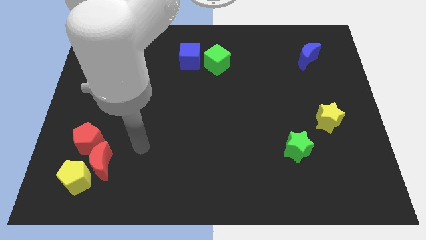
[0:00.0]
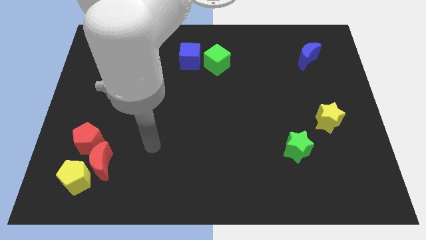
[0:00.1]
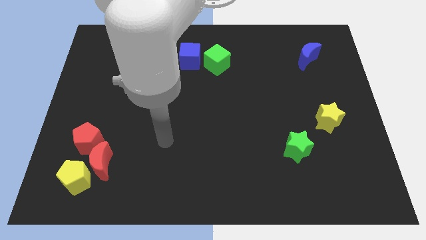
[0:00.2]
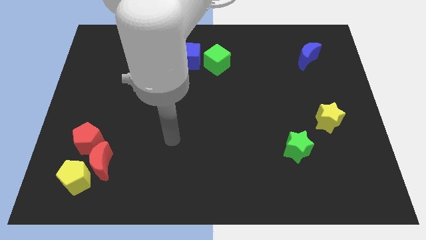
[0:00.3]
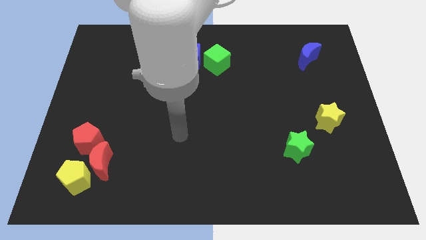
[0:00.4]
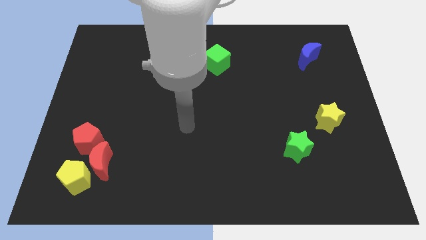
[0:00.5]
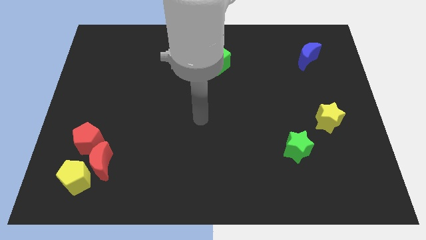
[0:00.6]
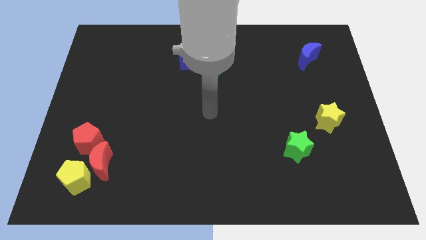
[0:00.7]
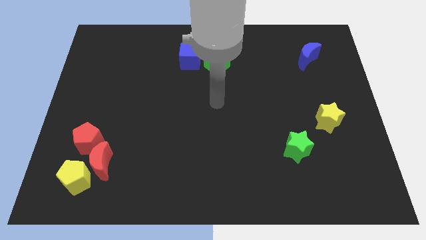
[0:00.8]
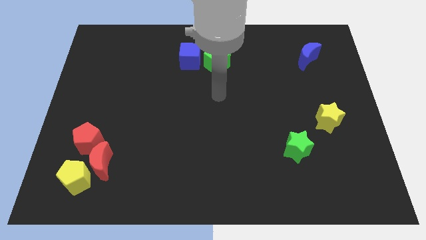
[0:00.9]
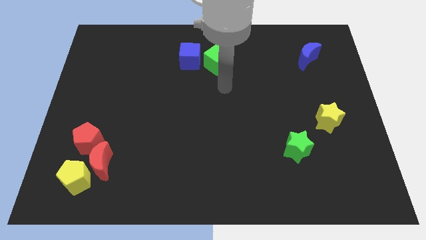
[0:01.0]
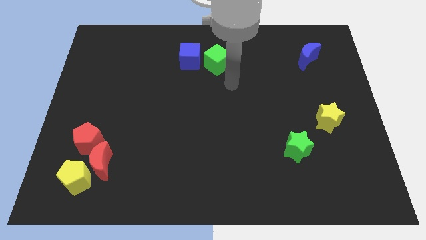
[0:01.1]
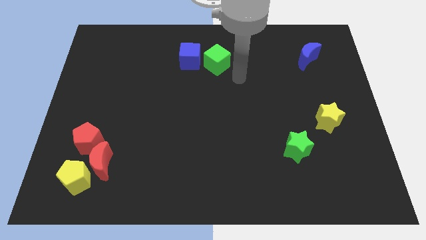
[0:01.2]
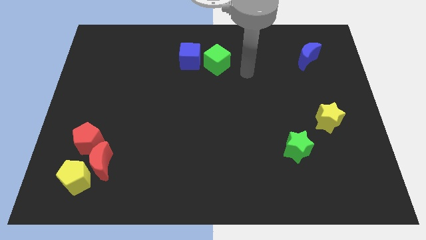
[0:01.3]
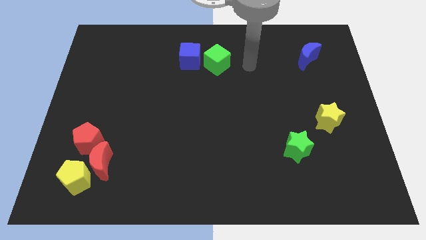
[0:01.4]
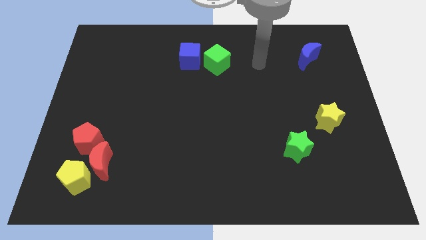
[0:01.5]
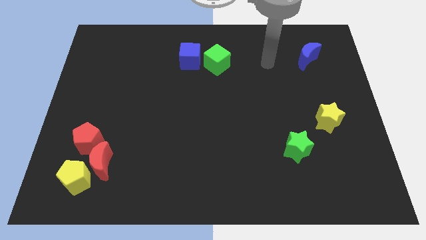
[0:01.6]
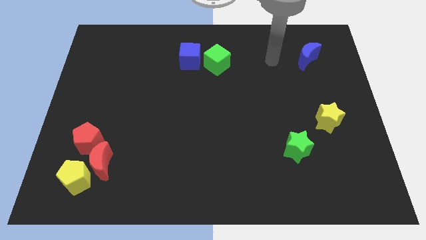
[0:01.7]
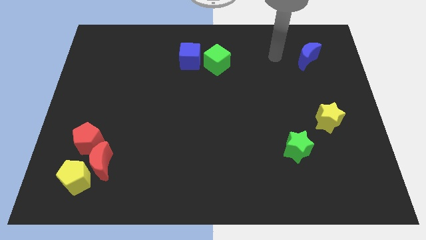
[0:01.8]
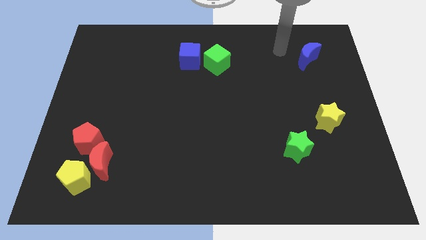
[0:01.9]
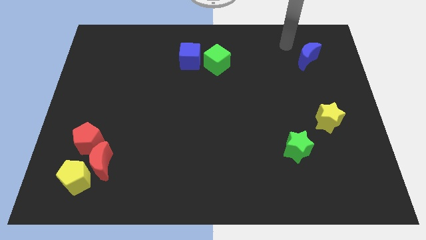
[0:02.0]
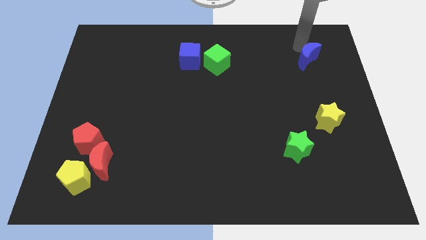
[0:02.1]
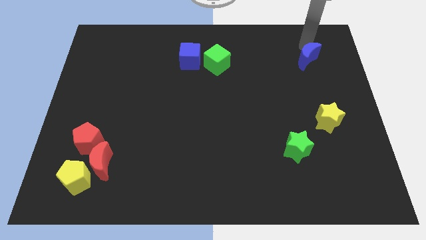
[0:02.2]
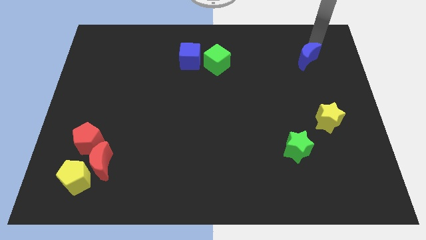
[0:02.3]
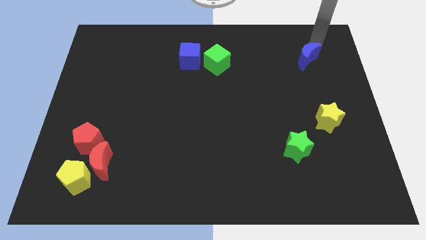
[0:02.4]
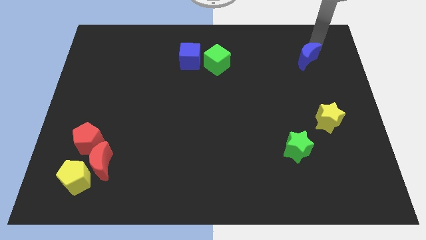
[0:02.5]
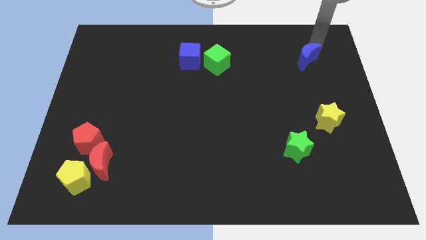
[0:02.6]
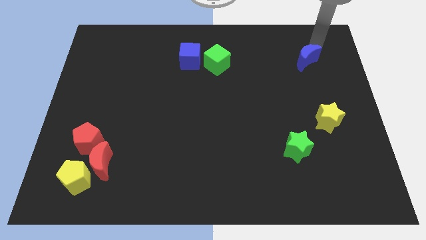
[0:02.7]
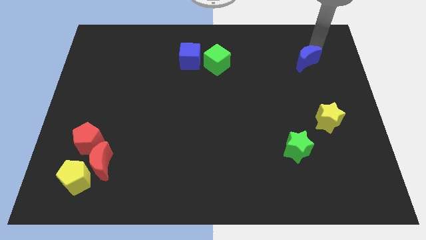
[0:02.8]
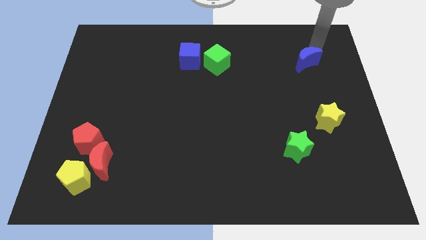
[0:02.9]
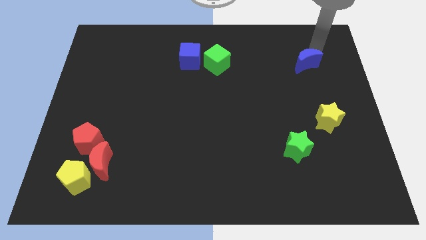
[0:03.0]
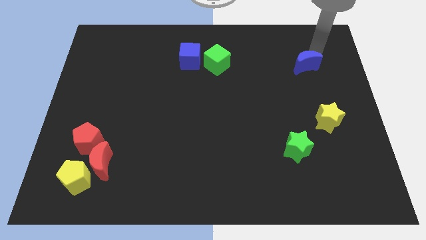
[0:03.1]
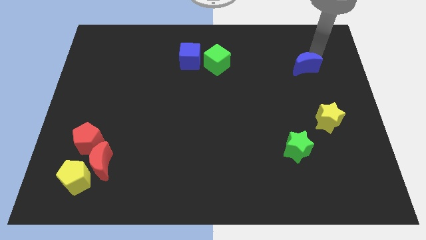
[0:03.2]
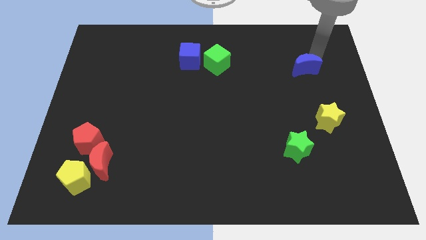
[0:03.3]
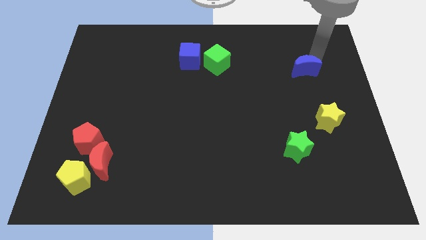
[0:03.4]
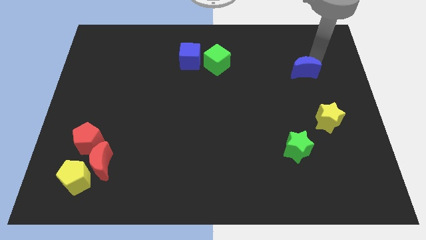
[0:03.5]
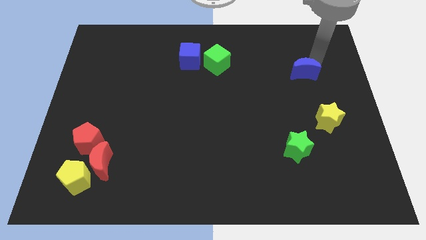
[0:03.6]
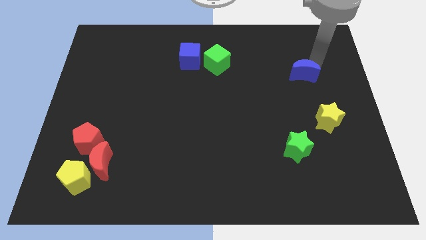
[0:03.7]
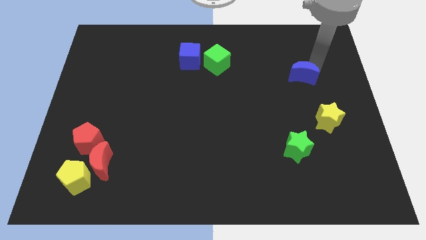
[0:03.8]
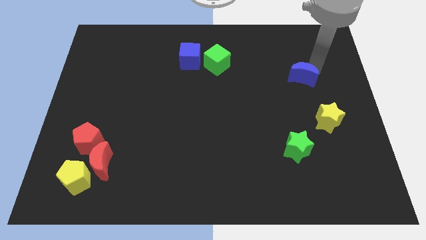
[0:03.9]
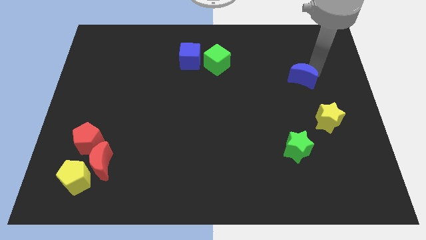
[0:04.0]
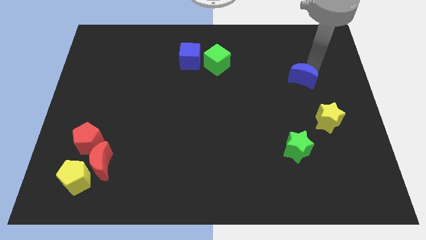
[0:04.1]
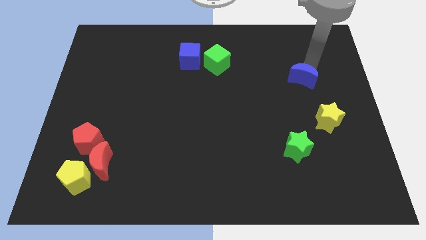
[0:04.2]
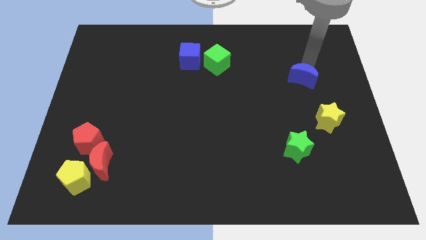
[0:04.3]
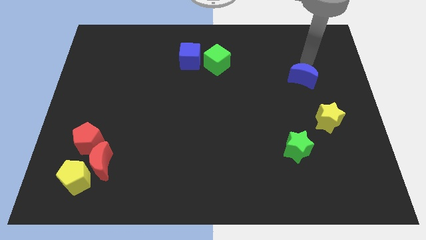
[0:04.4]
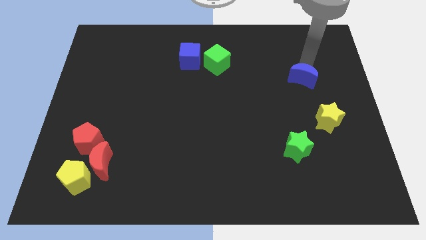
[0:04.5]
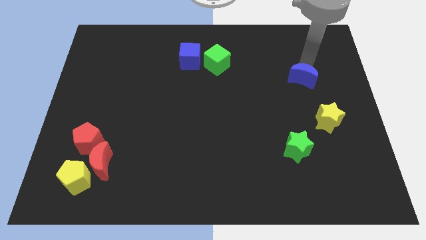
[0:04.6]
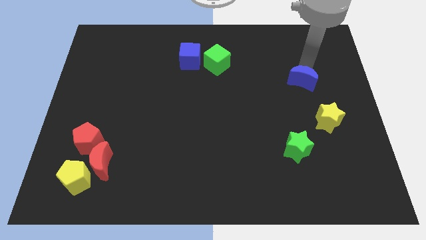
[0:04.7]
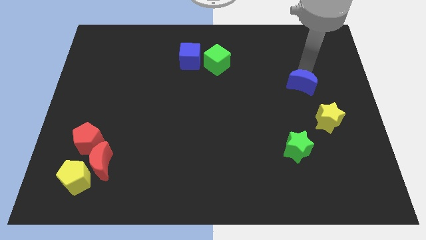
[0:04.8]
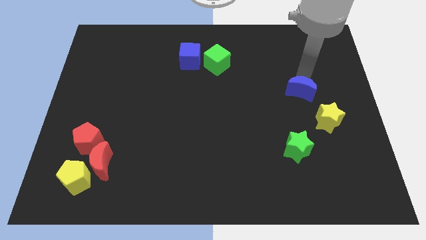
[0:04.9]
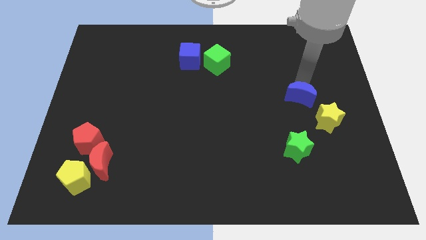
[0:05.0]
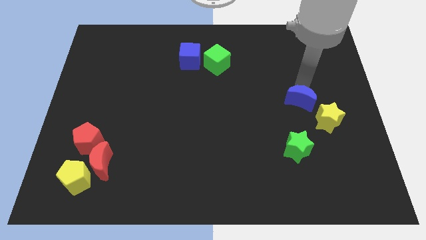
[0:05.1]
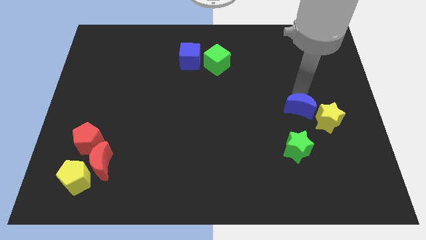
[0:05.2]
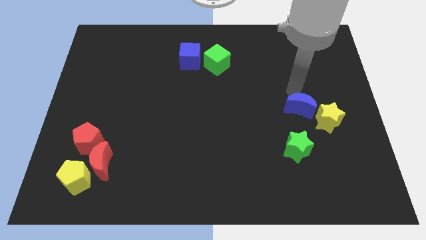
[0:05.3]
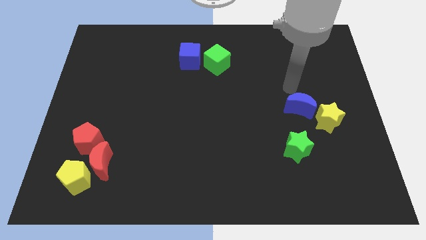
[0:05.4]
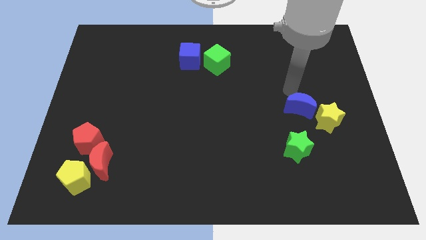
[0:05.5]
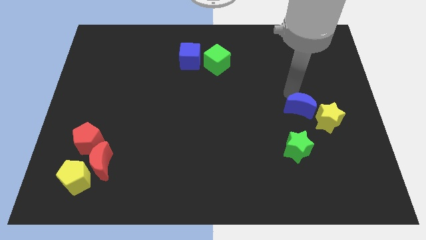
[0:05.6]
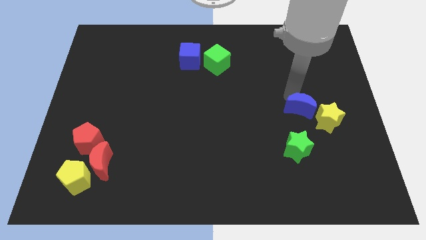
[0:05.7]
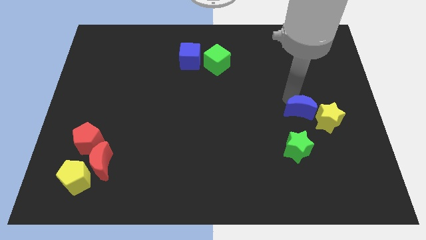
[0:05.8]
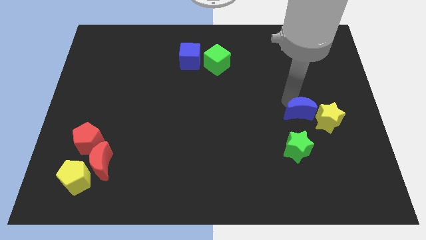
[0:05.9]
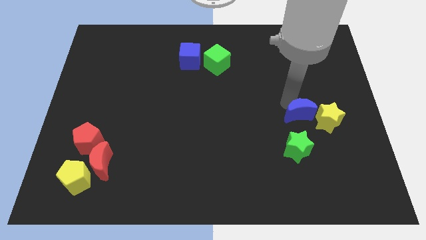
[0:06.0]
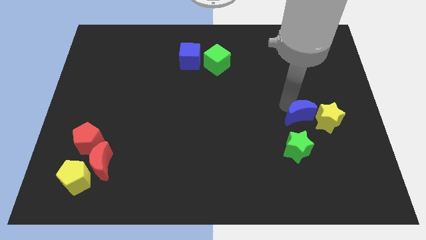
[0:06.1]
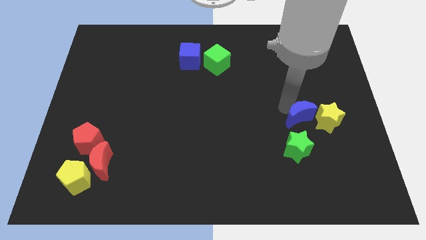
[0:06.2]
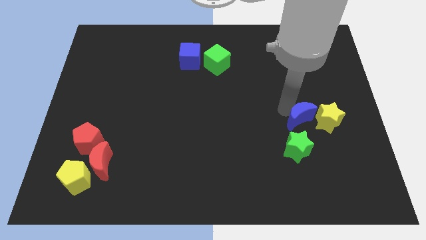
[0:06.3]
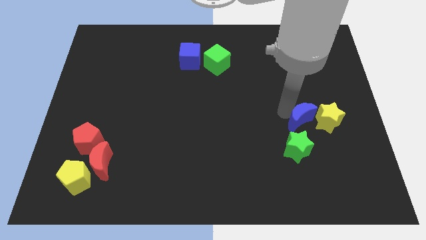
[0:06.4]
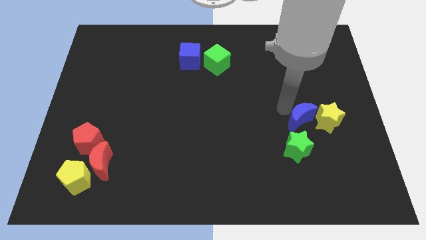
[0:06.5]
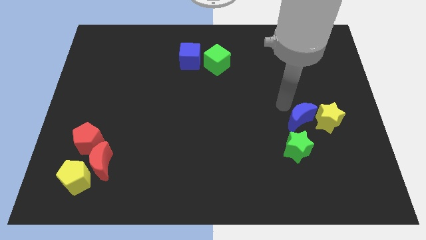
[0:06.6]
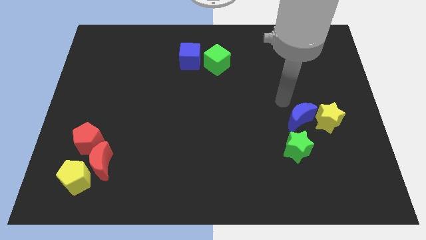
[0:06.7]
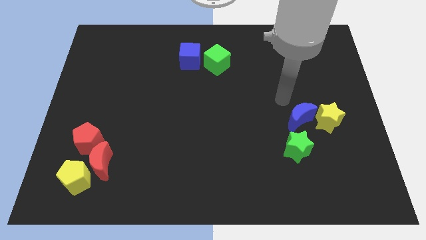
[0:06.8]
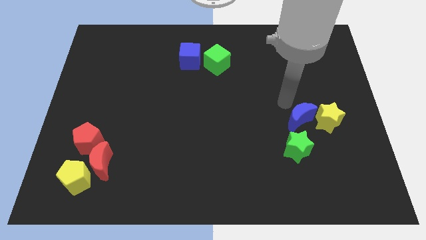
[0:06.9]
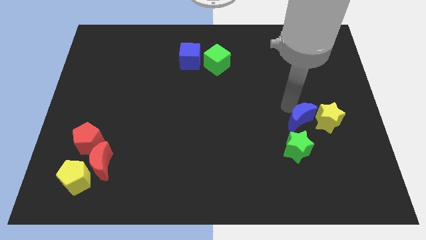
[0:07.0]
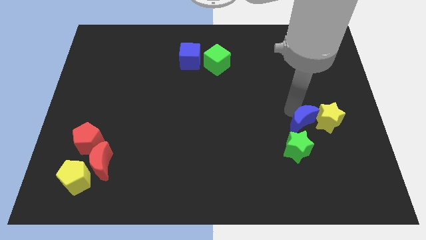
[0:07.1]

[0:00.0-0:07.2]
move the blue moon downwards

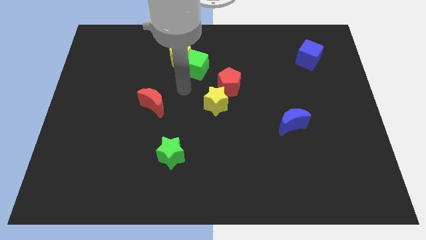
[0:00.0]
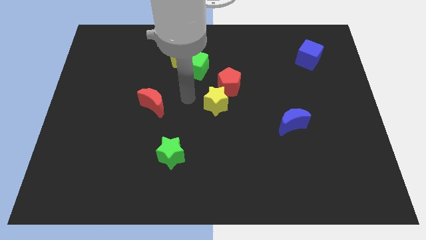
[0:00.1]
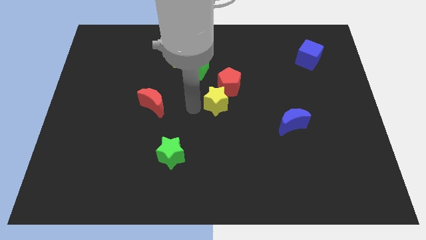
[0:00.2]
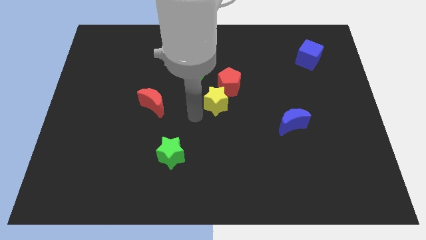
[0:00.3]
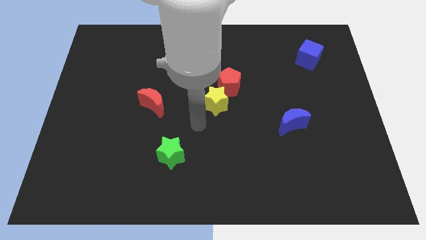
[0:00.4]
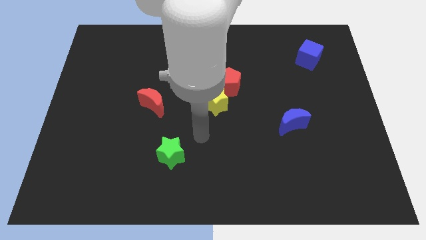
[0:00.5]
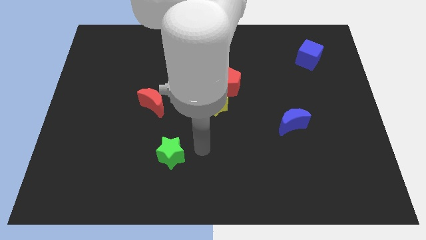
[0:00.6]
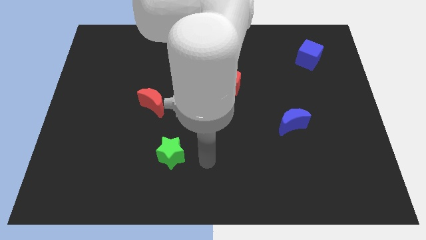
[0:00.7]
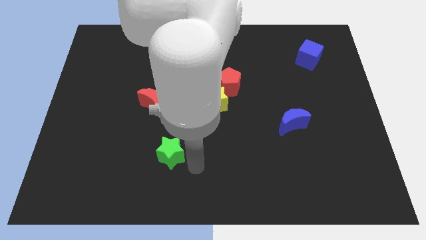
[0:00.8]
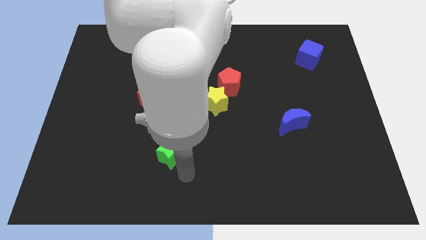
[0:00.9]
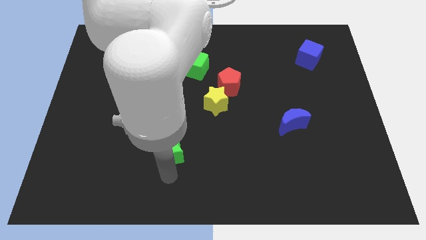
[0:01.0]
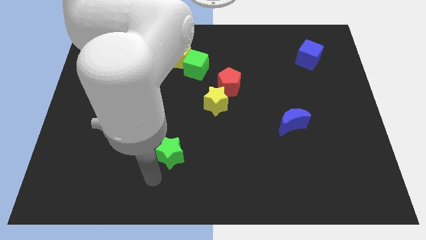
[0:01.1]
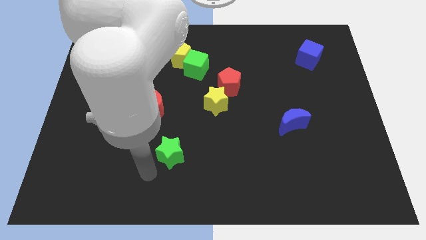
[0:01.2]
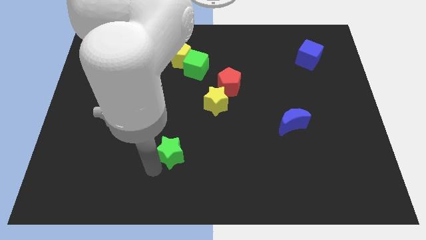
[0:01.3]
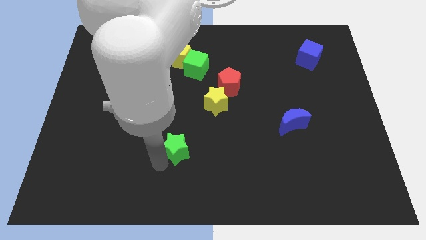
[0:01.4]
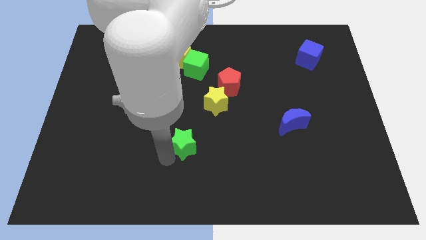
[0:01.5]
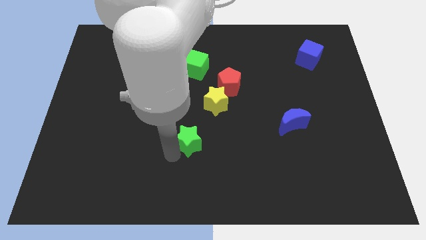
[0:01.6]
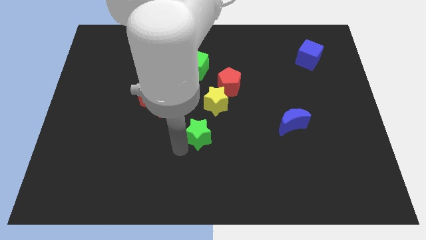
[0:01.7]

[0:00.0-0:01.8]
push the green star a little upwards and to the right
